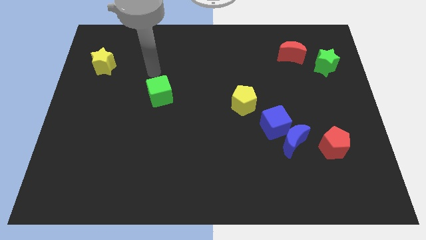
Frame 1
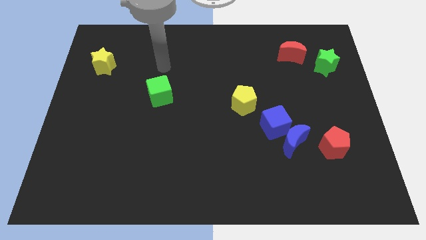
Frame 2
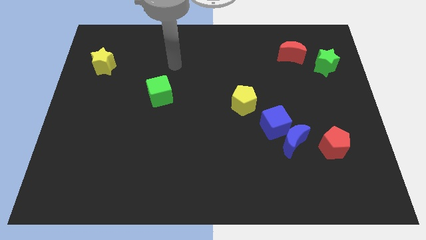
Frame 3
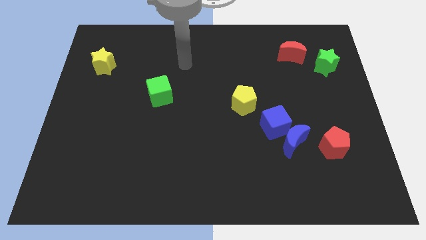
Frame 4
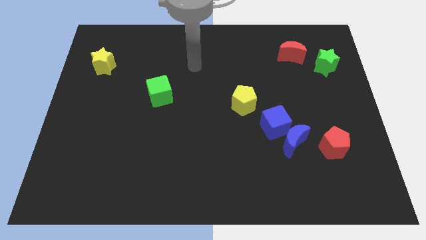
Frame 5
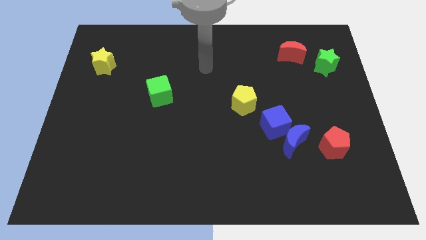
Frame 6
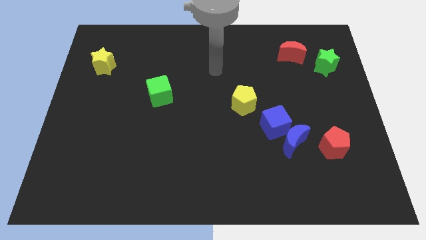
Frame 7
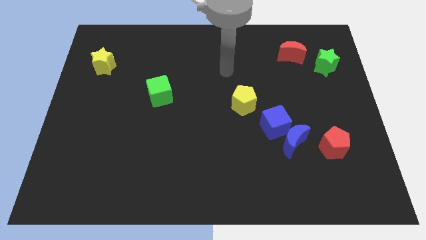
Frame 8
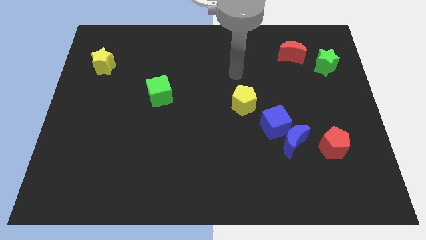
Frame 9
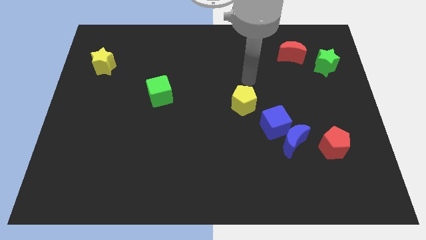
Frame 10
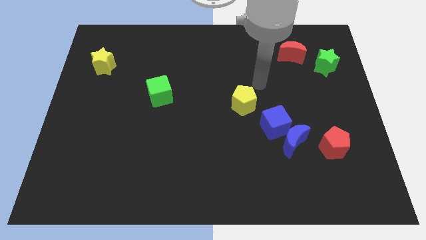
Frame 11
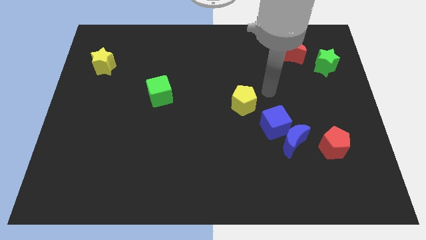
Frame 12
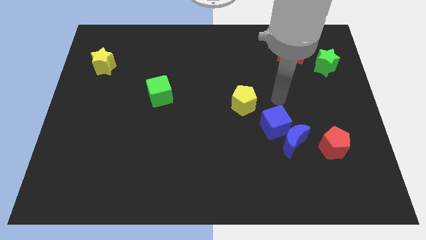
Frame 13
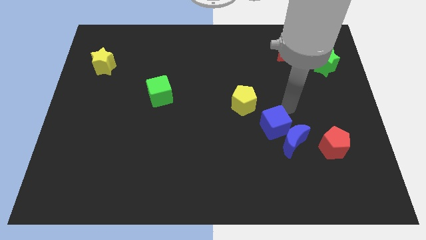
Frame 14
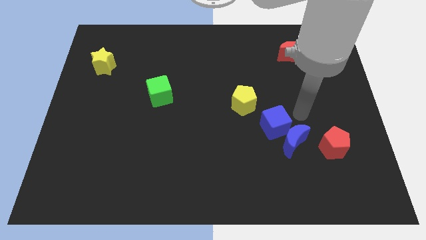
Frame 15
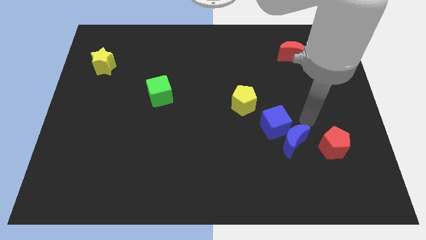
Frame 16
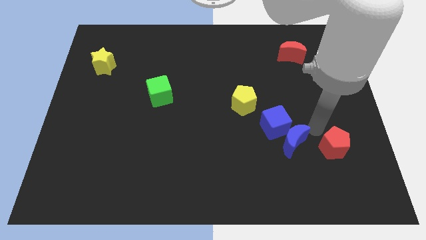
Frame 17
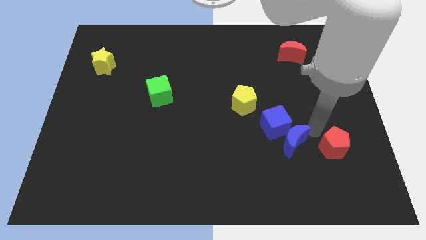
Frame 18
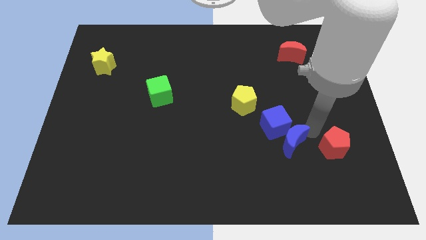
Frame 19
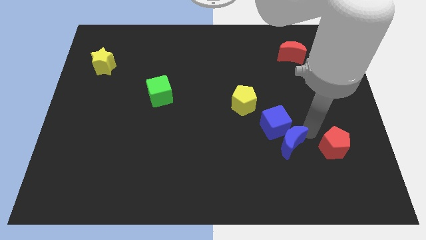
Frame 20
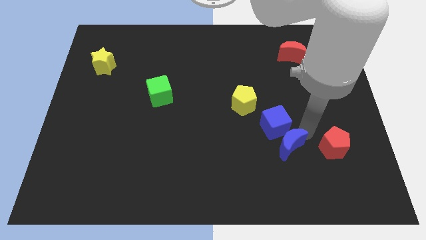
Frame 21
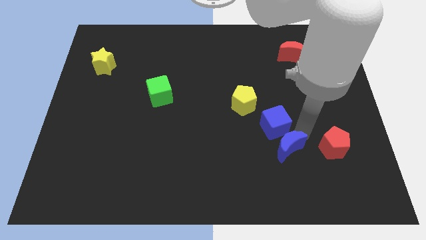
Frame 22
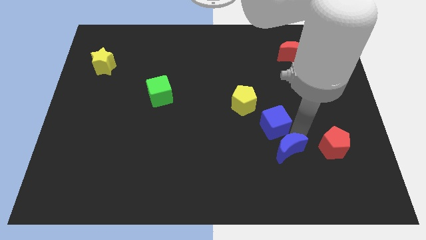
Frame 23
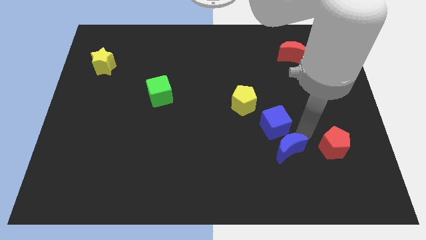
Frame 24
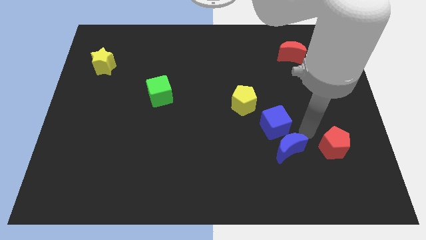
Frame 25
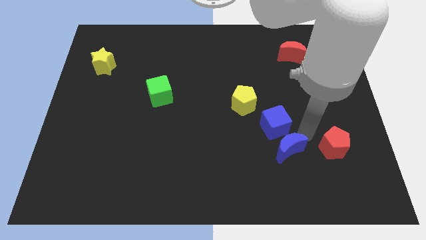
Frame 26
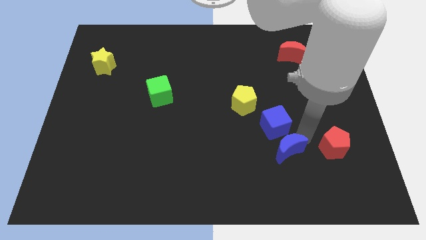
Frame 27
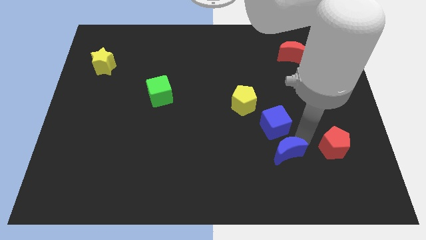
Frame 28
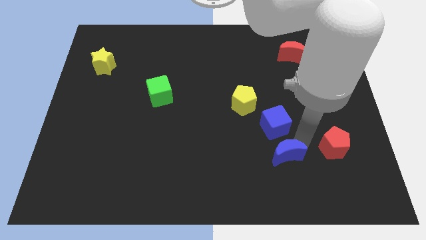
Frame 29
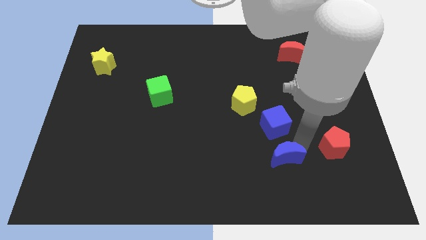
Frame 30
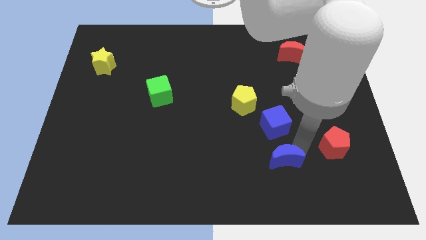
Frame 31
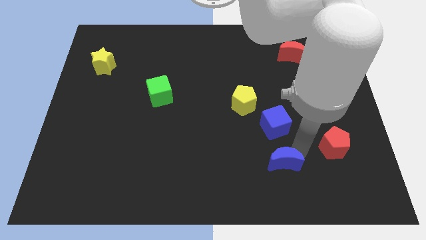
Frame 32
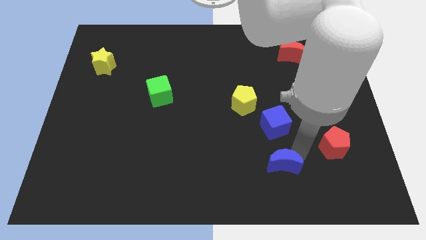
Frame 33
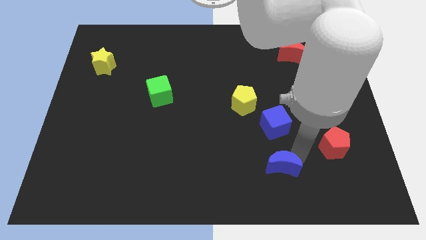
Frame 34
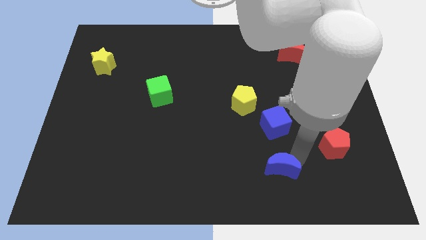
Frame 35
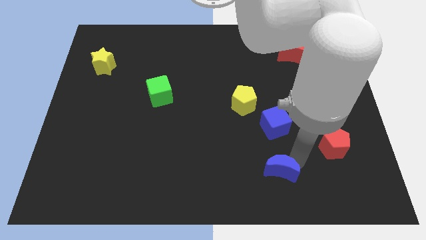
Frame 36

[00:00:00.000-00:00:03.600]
separate the blue moon from the blue cube and red pentagon

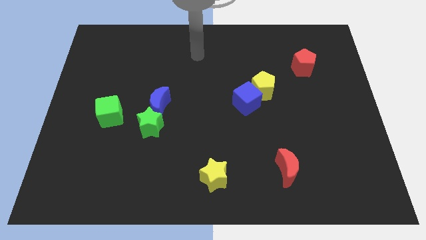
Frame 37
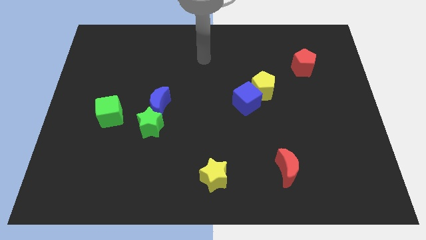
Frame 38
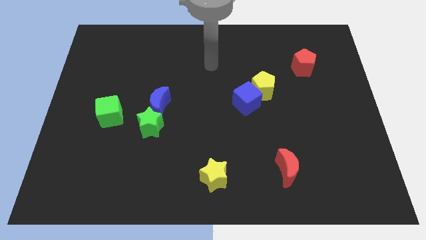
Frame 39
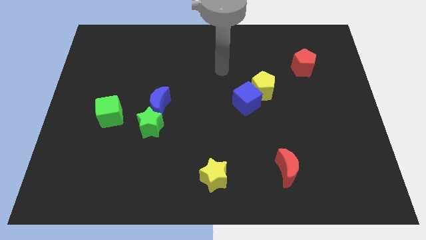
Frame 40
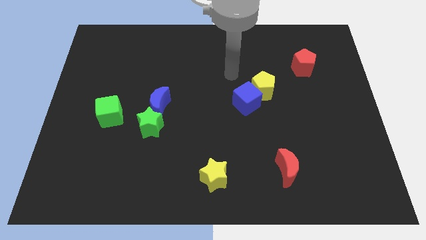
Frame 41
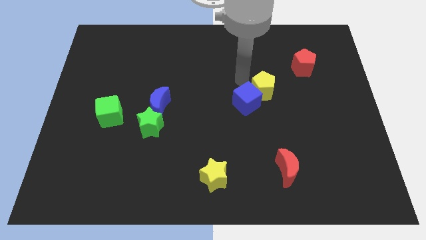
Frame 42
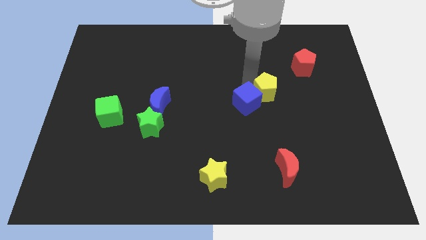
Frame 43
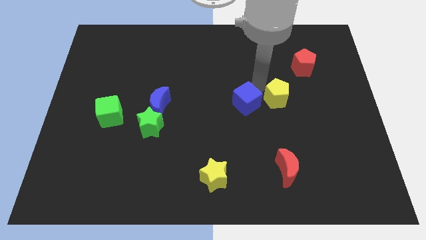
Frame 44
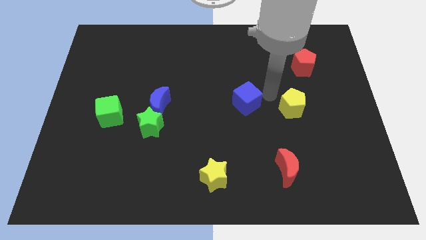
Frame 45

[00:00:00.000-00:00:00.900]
separate the blue cube from the yellow pentagon

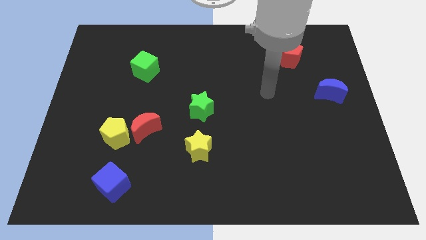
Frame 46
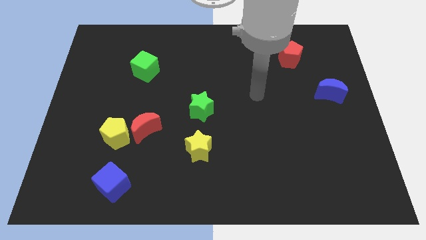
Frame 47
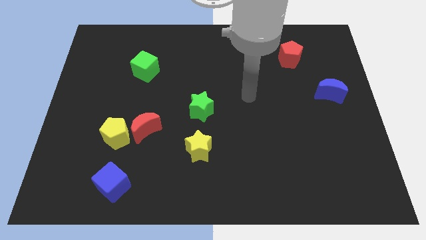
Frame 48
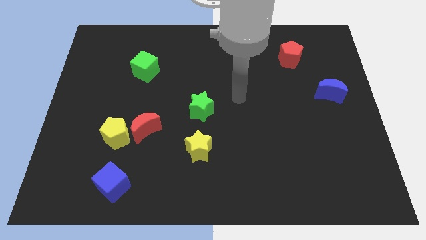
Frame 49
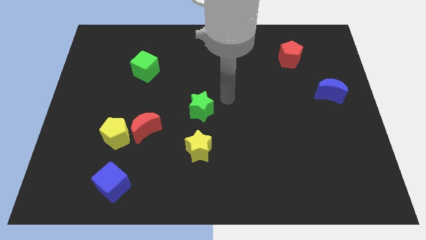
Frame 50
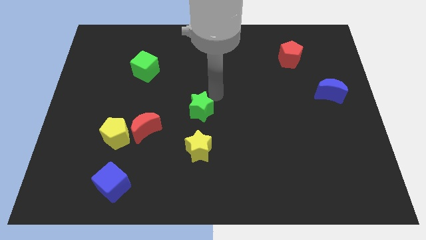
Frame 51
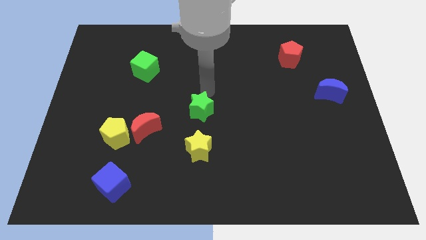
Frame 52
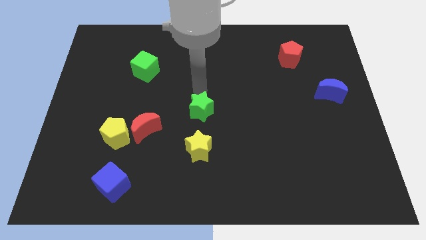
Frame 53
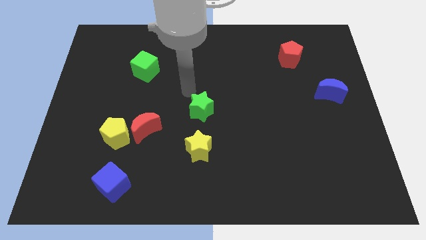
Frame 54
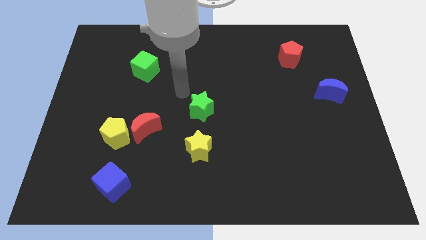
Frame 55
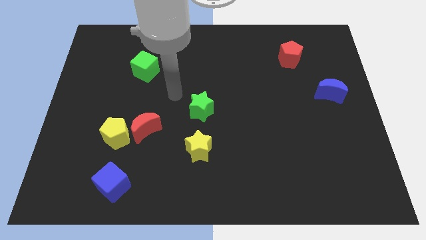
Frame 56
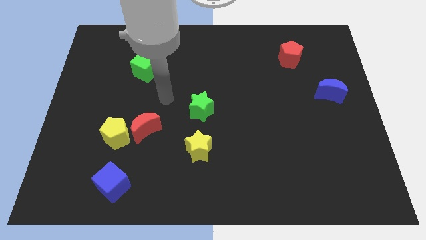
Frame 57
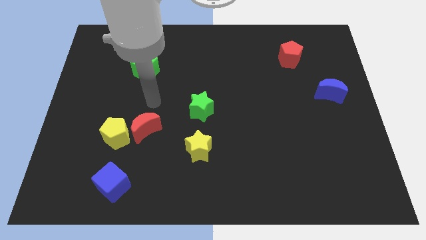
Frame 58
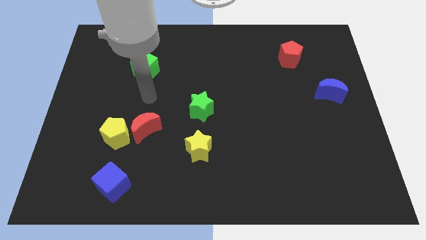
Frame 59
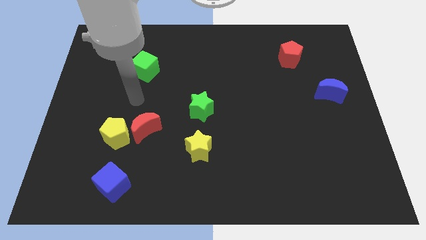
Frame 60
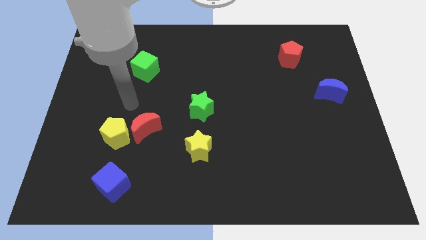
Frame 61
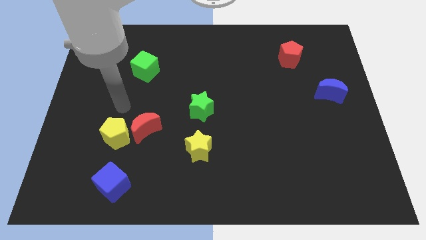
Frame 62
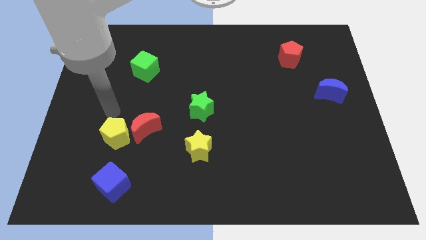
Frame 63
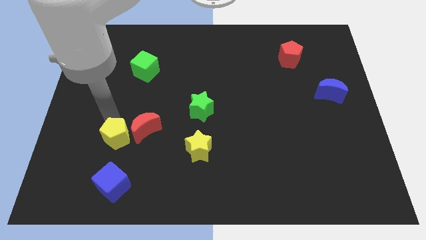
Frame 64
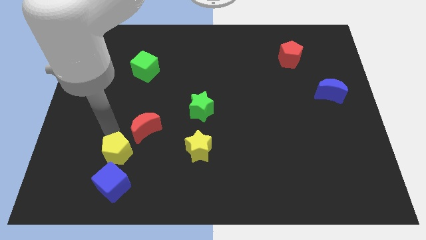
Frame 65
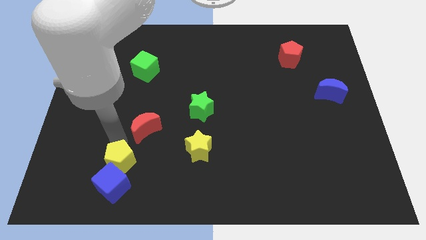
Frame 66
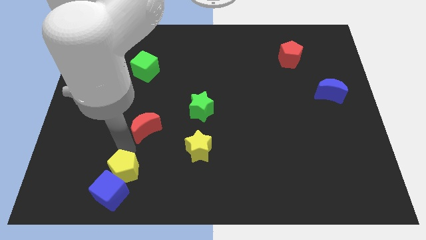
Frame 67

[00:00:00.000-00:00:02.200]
separate the red moon from the yellow pentagon

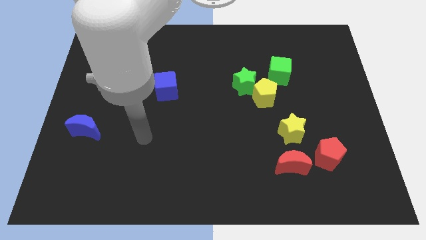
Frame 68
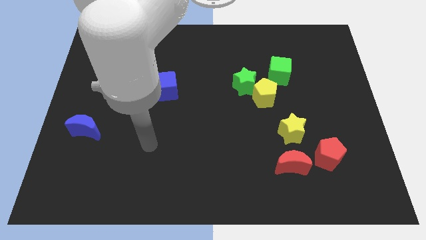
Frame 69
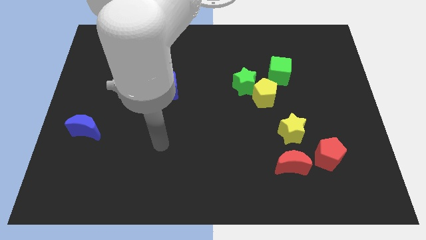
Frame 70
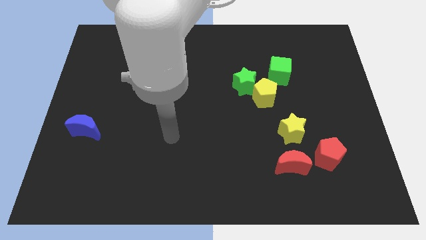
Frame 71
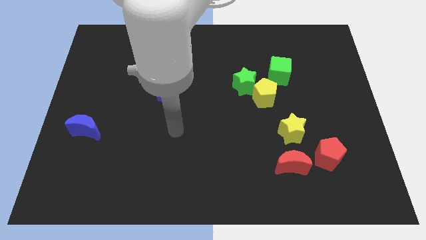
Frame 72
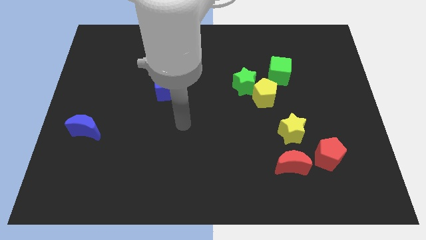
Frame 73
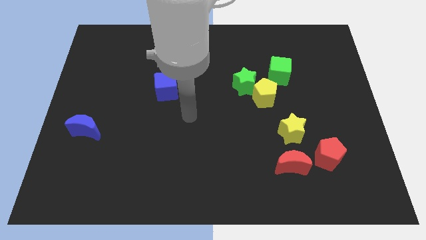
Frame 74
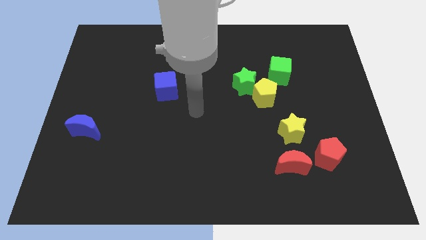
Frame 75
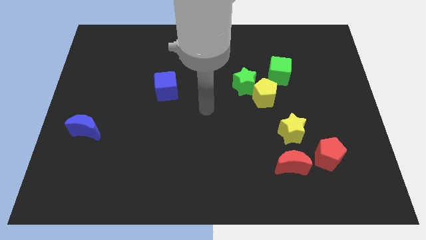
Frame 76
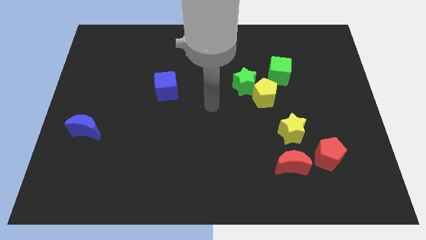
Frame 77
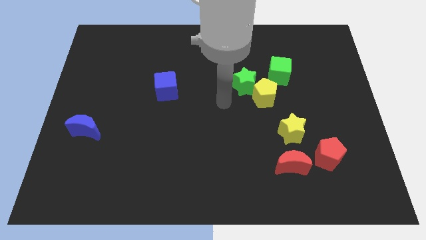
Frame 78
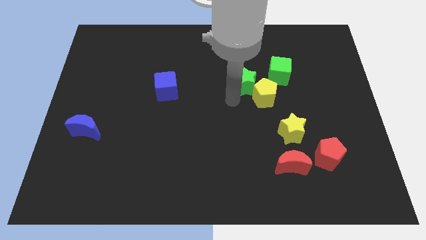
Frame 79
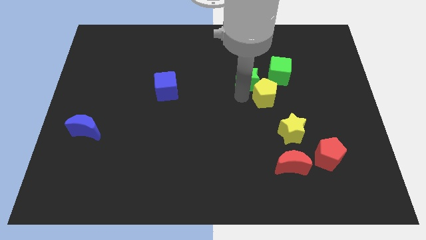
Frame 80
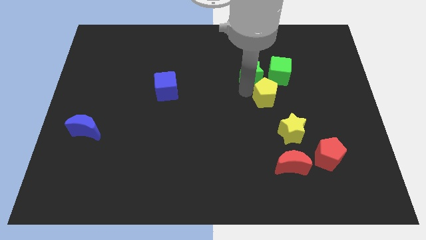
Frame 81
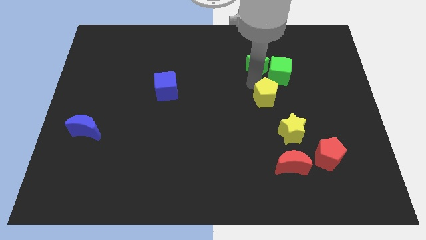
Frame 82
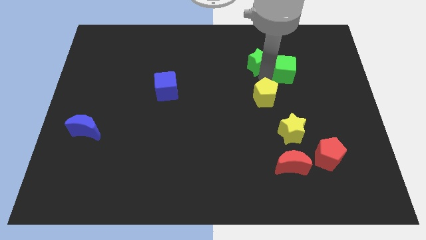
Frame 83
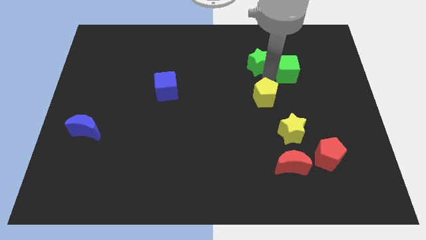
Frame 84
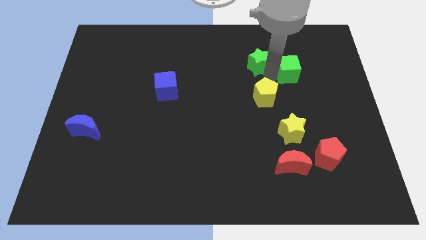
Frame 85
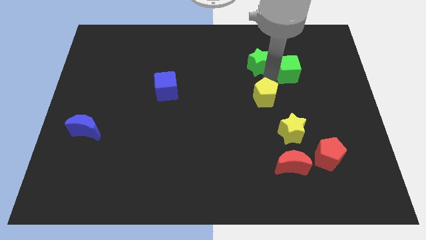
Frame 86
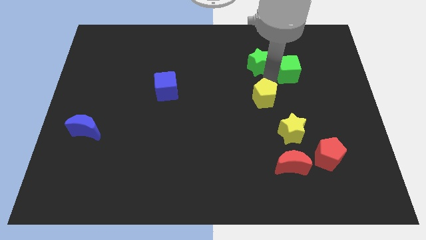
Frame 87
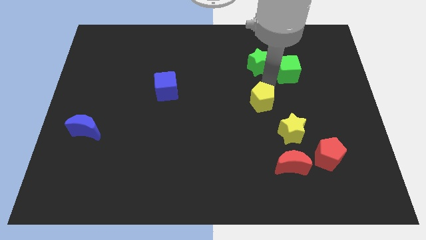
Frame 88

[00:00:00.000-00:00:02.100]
pull the yellow pentagon apart from the green star and green cube

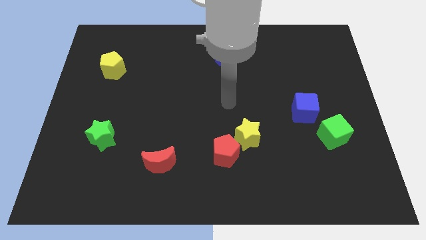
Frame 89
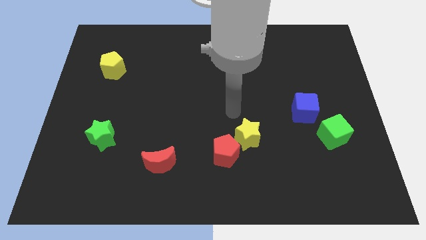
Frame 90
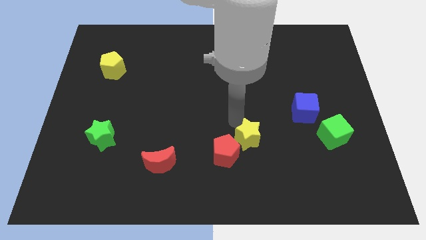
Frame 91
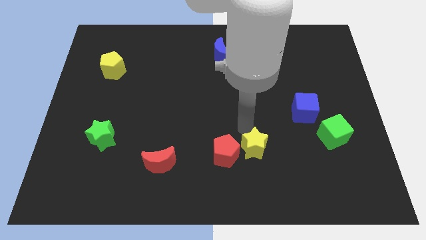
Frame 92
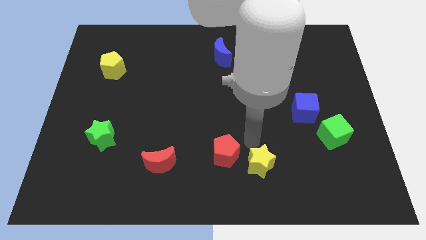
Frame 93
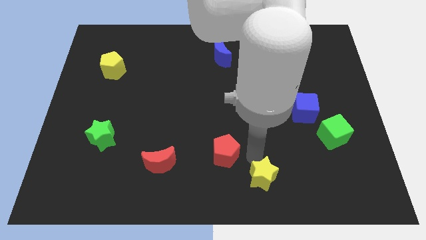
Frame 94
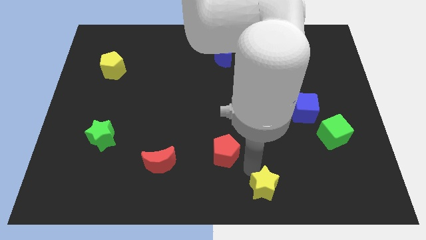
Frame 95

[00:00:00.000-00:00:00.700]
move the red pentagon away from the yellow star
